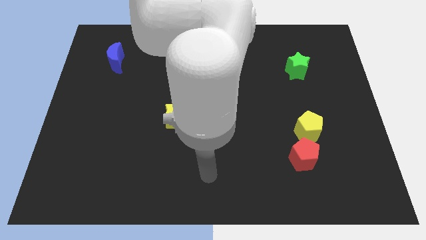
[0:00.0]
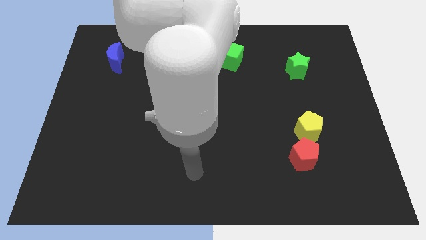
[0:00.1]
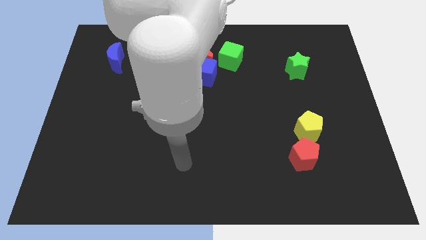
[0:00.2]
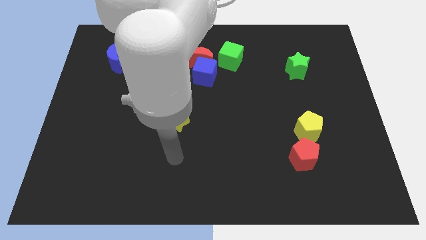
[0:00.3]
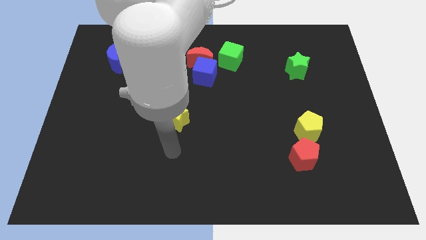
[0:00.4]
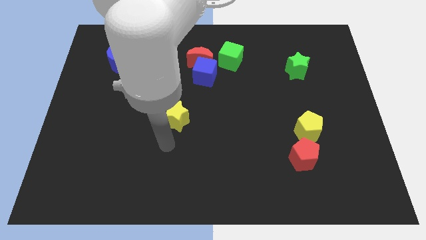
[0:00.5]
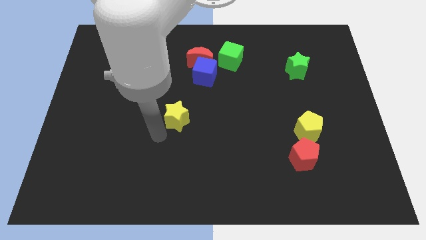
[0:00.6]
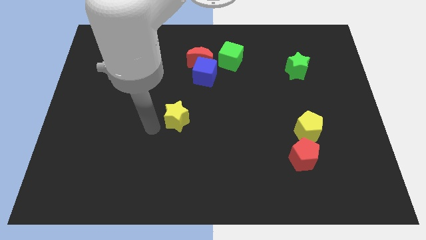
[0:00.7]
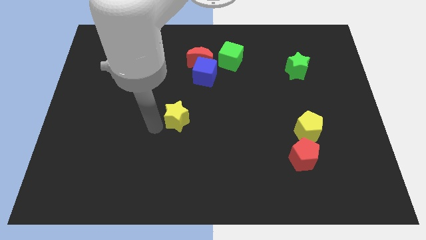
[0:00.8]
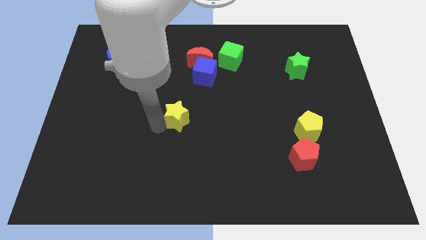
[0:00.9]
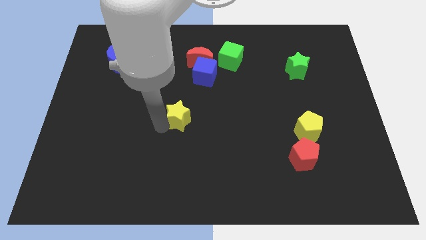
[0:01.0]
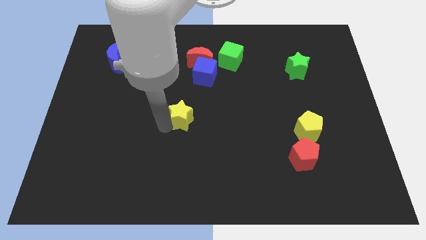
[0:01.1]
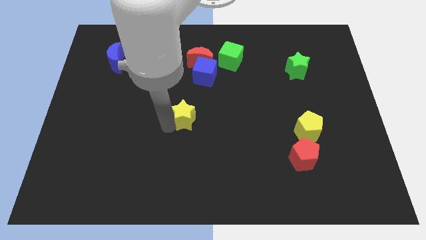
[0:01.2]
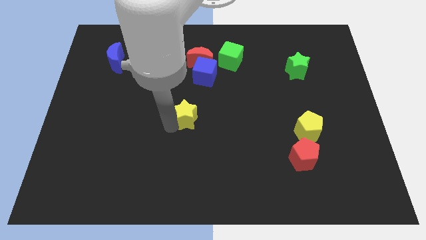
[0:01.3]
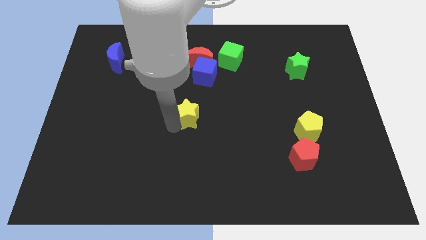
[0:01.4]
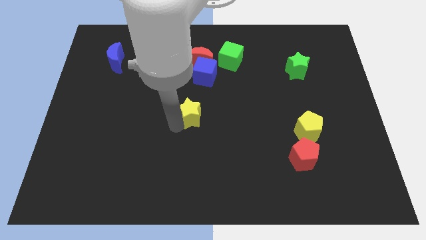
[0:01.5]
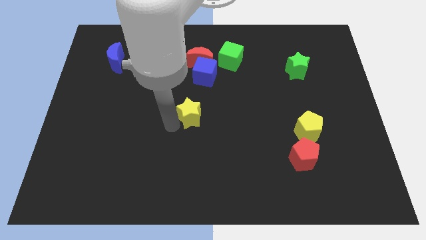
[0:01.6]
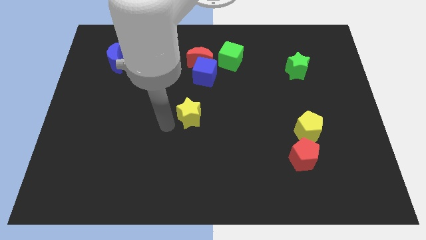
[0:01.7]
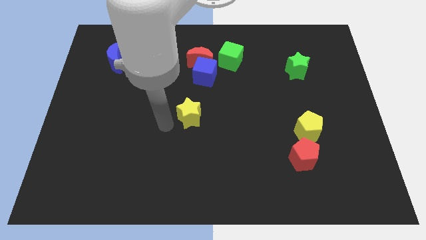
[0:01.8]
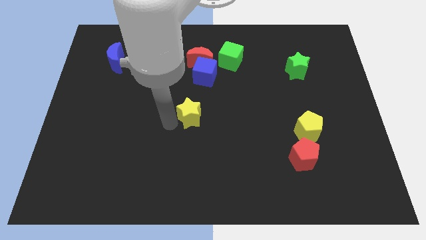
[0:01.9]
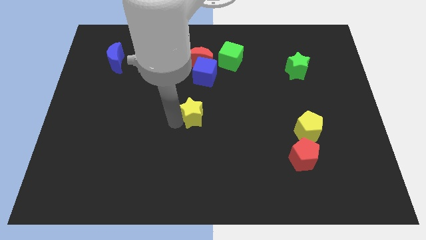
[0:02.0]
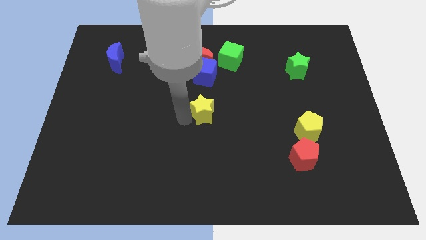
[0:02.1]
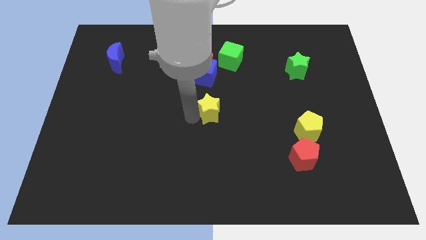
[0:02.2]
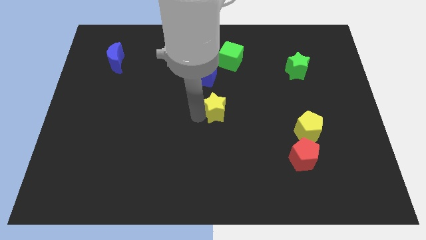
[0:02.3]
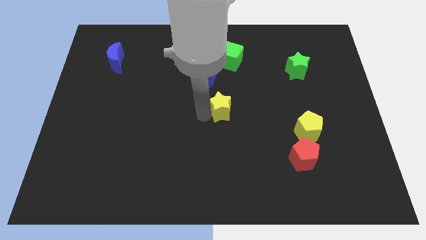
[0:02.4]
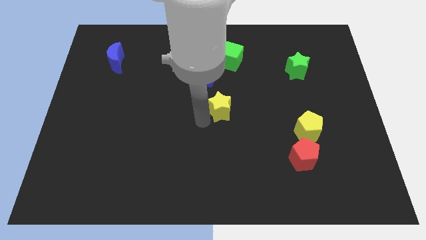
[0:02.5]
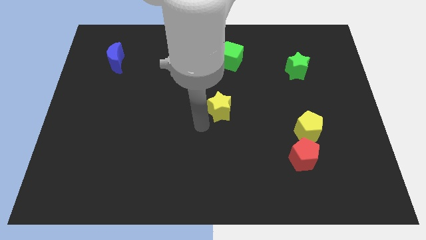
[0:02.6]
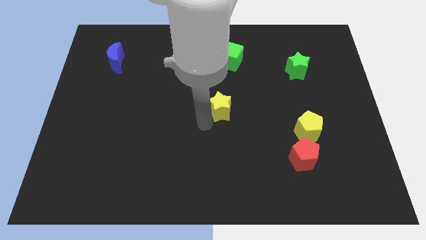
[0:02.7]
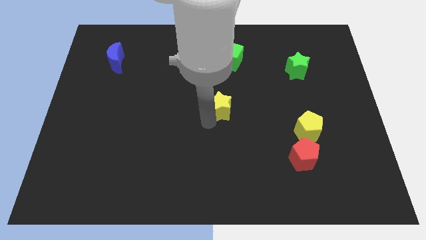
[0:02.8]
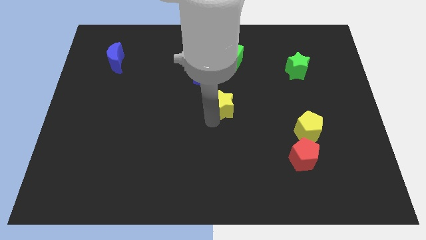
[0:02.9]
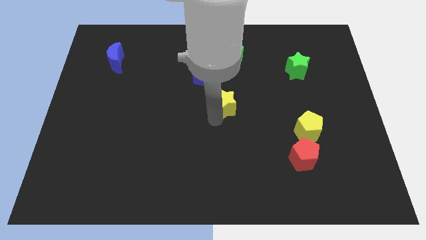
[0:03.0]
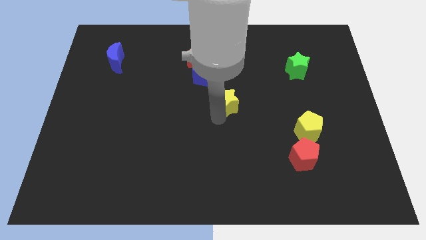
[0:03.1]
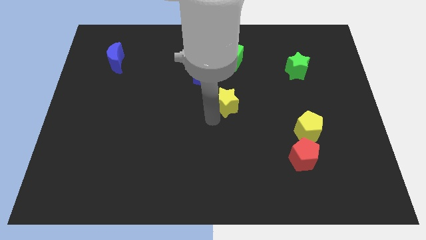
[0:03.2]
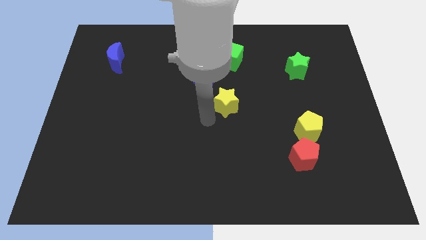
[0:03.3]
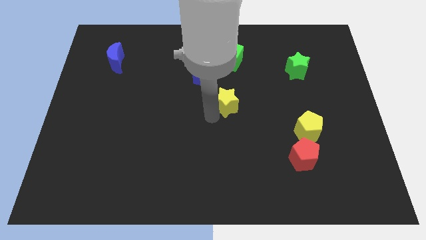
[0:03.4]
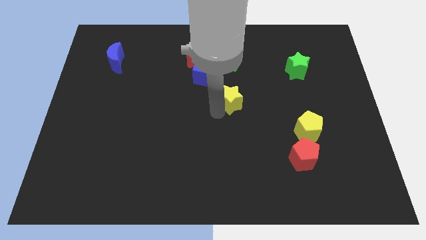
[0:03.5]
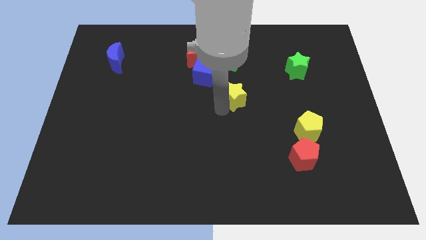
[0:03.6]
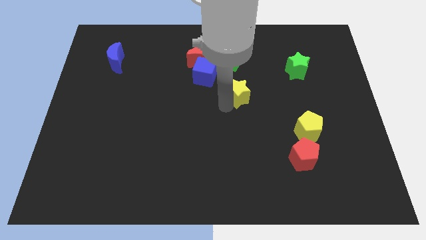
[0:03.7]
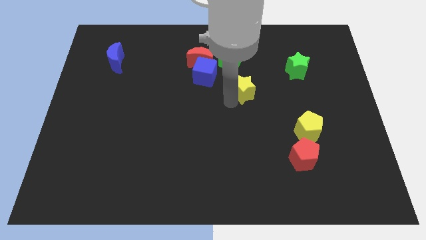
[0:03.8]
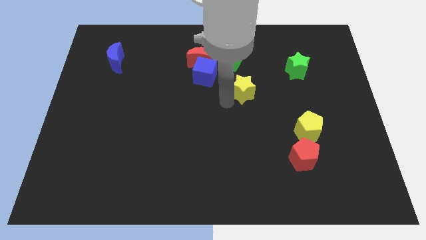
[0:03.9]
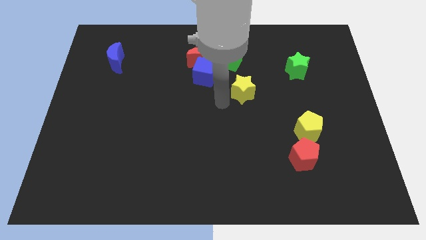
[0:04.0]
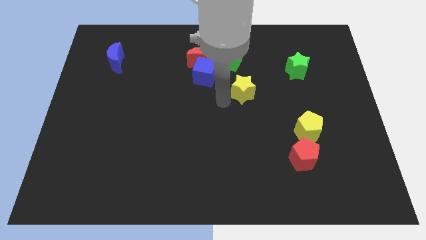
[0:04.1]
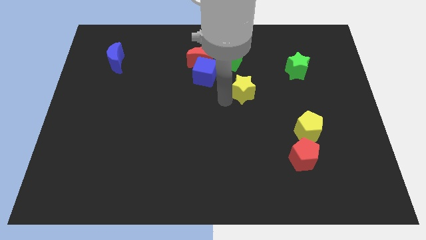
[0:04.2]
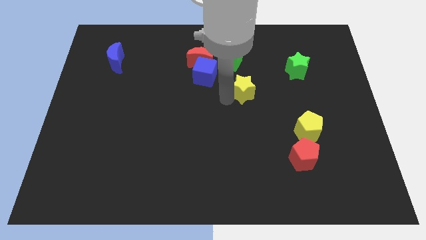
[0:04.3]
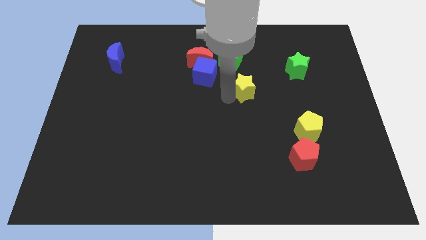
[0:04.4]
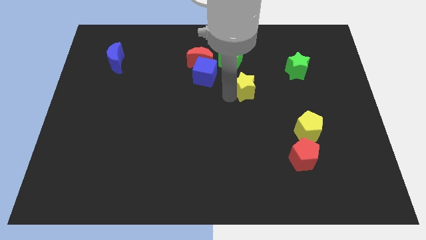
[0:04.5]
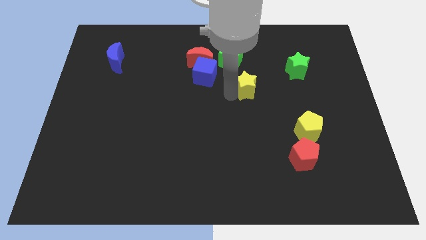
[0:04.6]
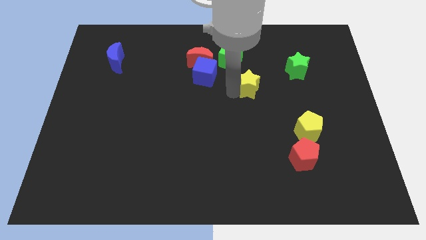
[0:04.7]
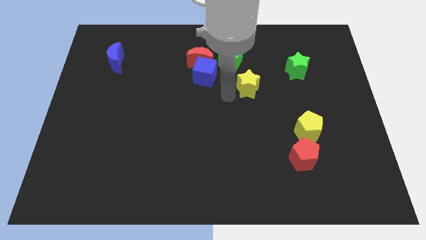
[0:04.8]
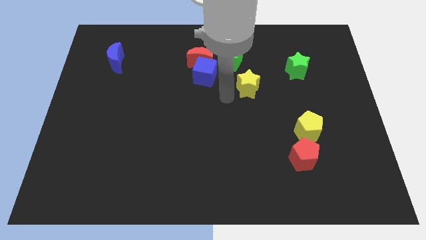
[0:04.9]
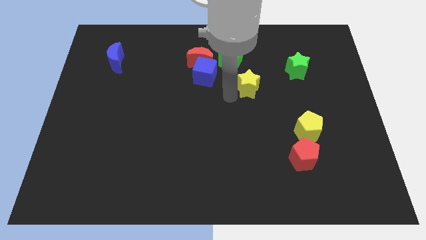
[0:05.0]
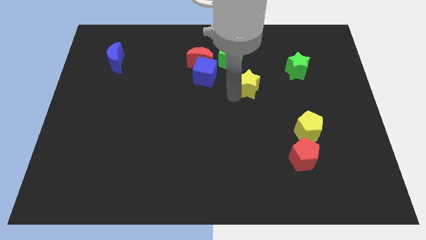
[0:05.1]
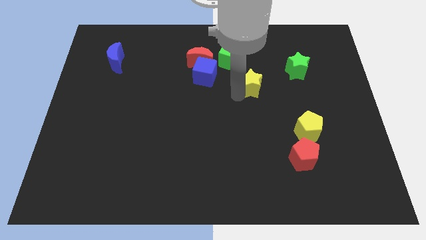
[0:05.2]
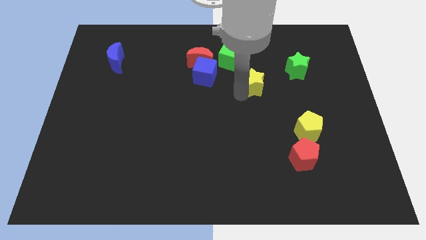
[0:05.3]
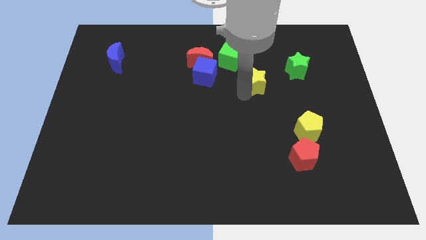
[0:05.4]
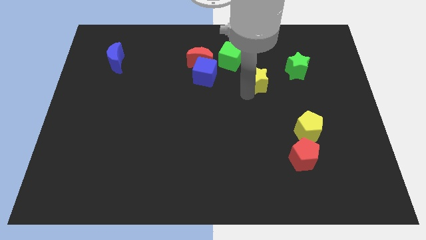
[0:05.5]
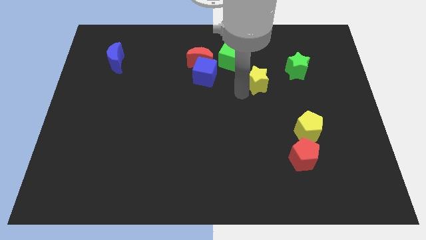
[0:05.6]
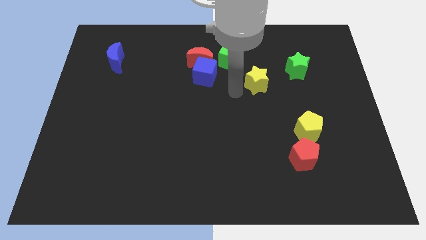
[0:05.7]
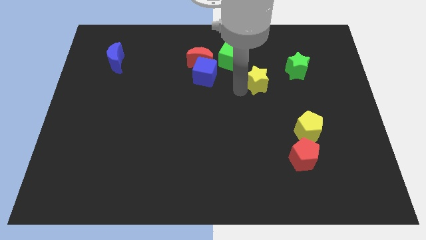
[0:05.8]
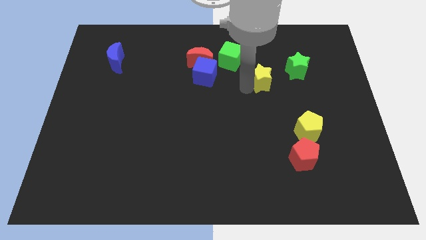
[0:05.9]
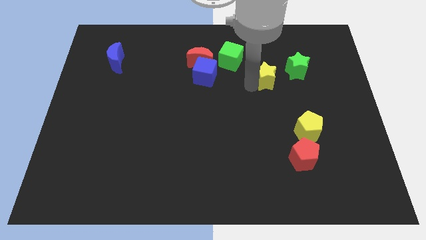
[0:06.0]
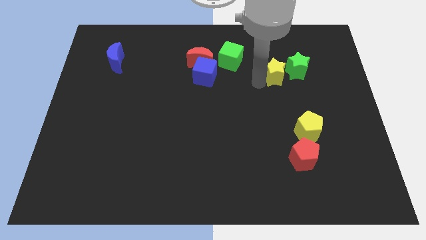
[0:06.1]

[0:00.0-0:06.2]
push the yellow star close to the green star

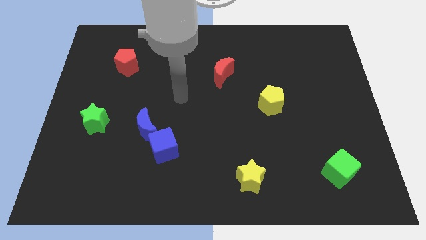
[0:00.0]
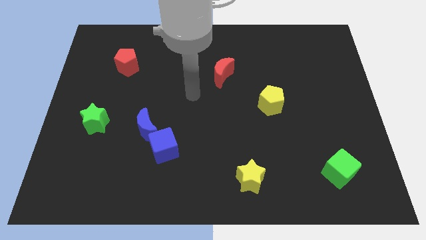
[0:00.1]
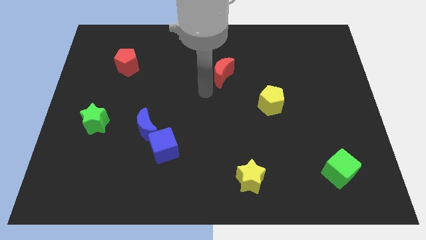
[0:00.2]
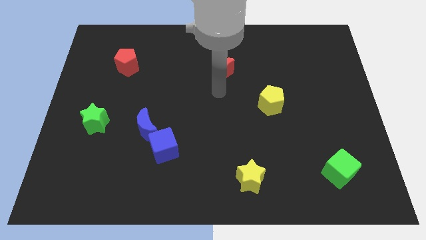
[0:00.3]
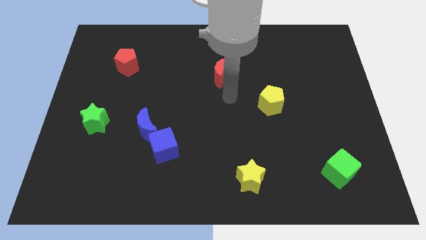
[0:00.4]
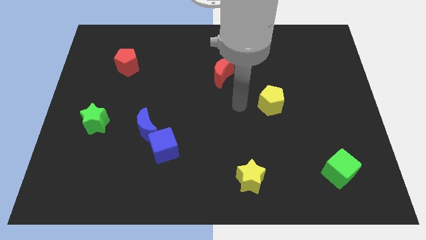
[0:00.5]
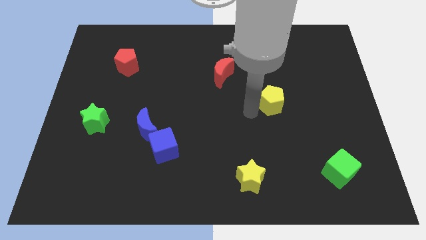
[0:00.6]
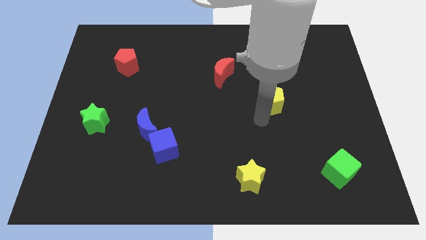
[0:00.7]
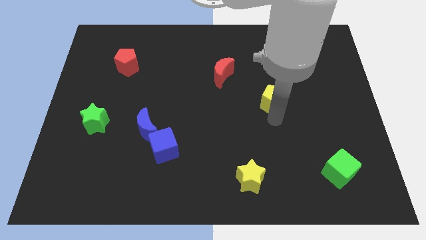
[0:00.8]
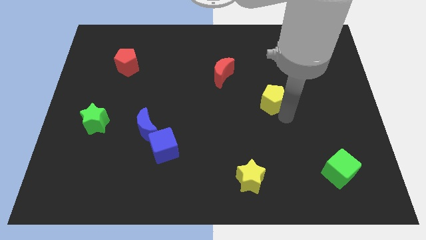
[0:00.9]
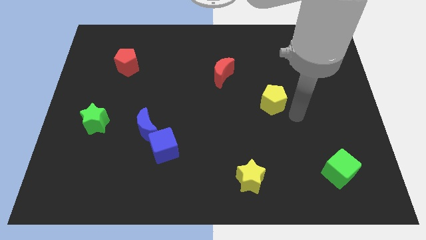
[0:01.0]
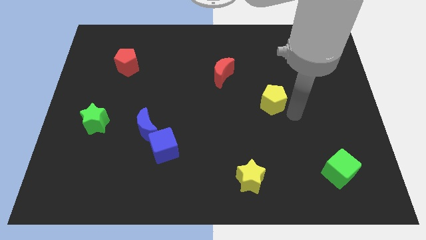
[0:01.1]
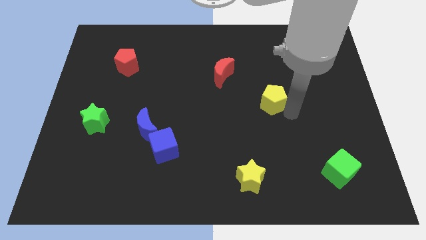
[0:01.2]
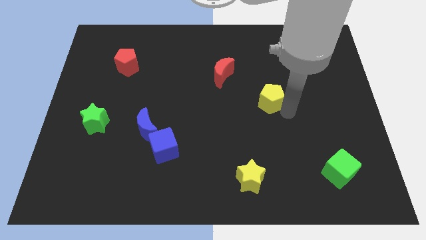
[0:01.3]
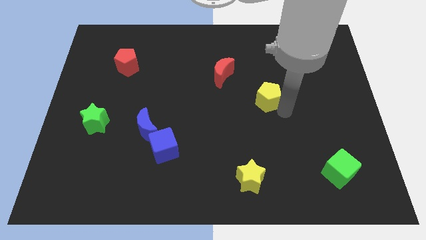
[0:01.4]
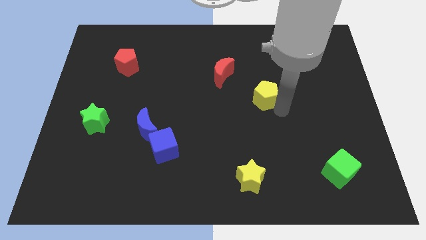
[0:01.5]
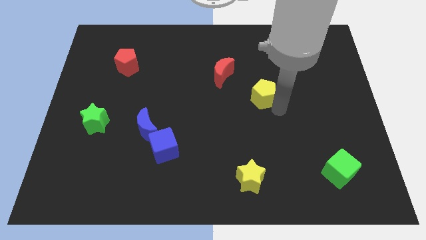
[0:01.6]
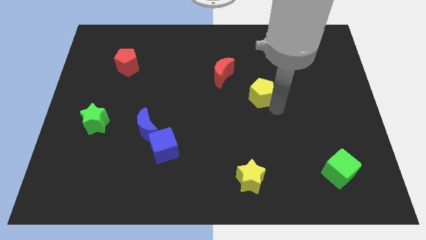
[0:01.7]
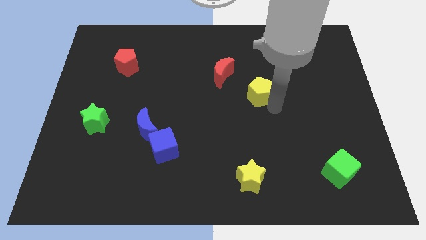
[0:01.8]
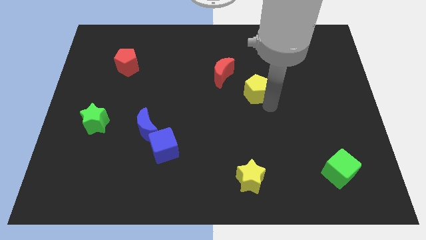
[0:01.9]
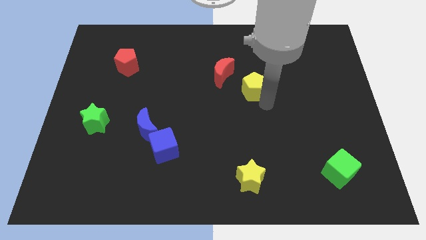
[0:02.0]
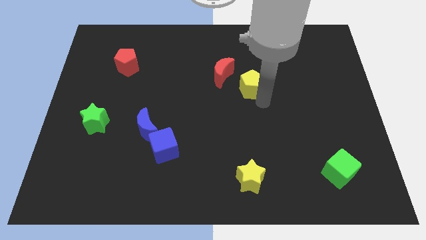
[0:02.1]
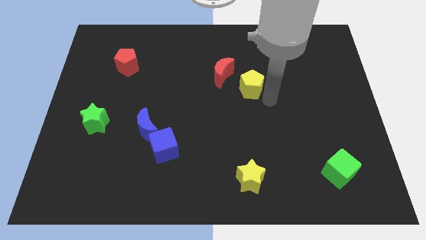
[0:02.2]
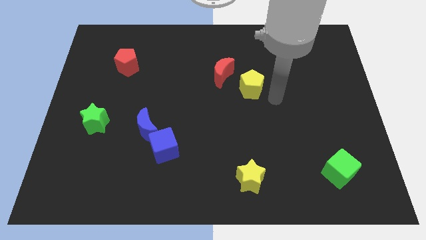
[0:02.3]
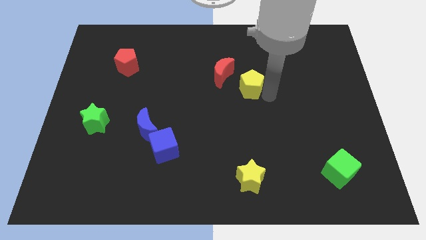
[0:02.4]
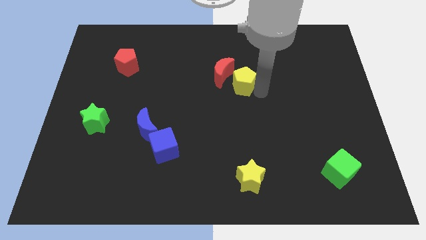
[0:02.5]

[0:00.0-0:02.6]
slide the yellow pentagon towards the red moon
